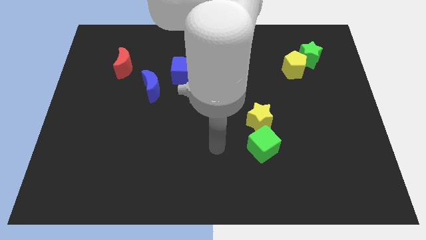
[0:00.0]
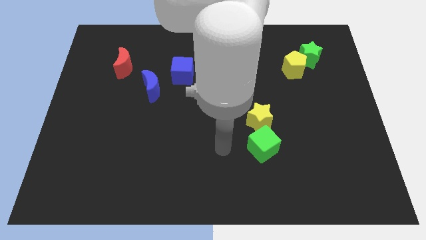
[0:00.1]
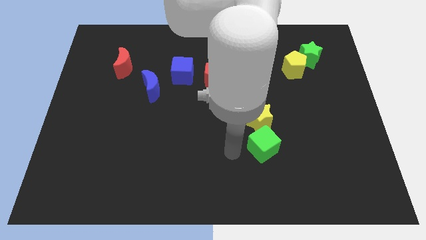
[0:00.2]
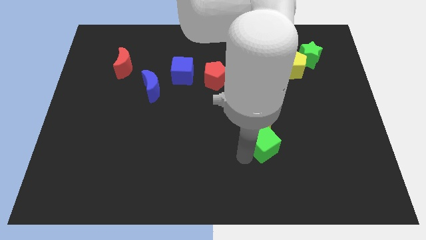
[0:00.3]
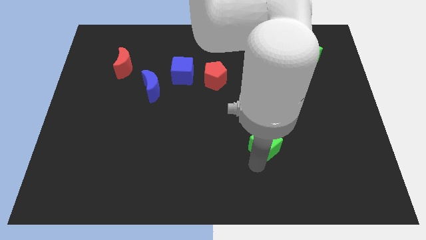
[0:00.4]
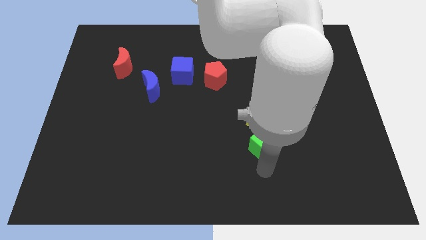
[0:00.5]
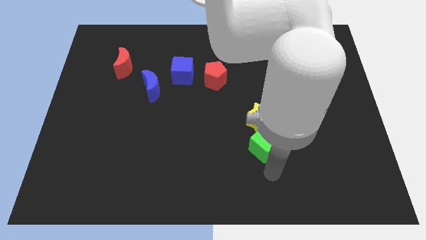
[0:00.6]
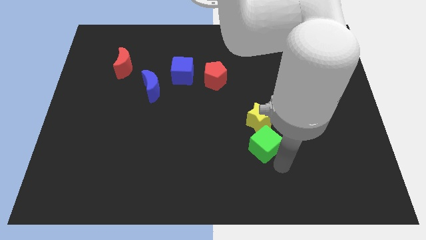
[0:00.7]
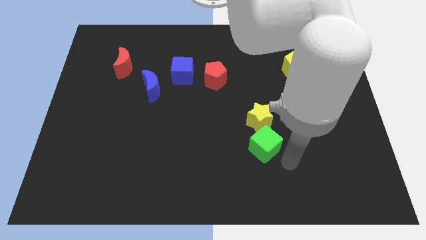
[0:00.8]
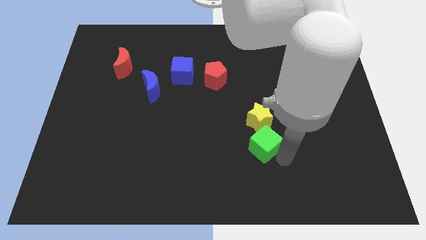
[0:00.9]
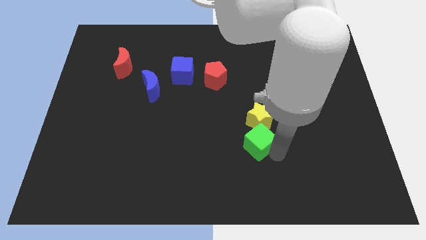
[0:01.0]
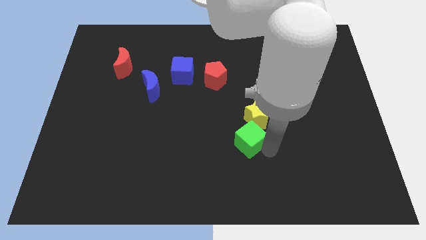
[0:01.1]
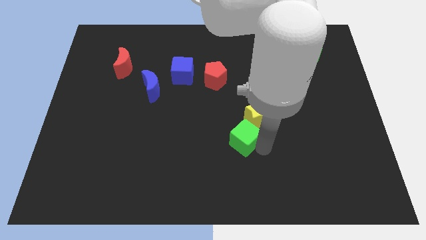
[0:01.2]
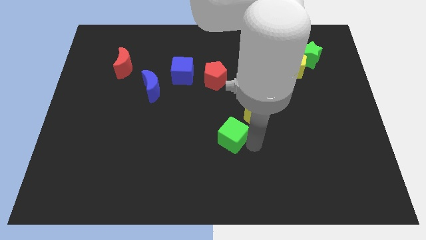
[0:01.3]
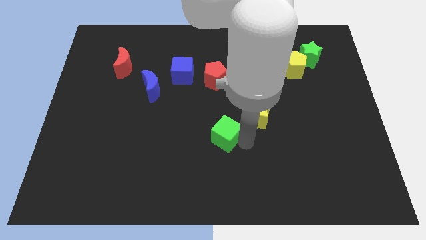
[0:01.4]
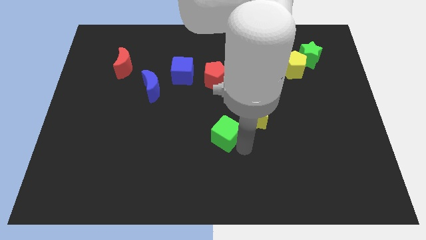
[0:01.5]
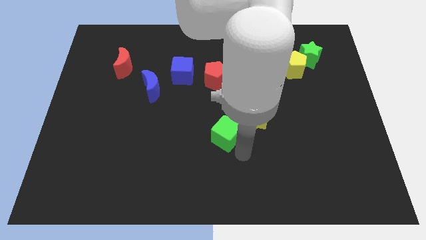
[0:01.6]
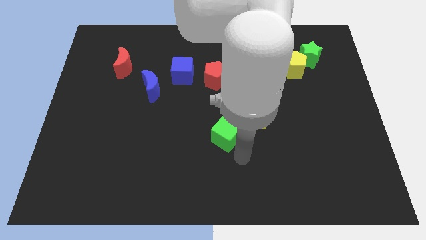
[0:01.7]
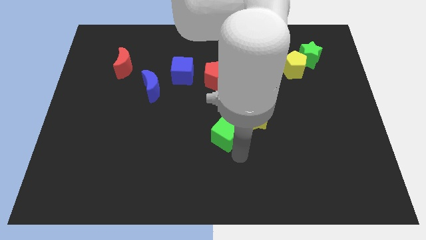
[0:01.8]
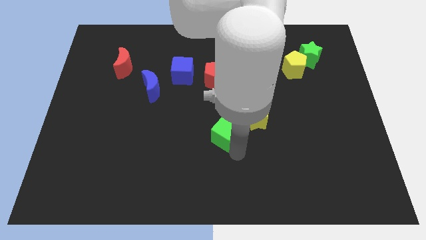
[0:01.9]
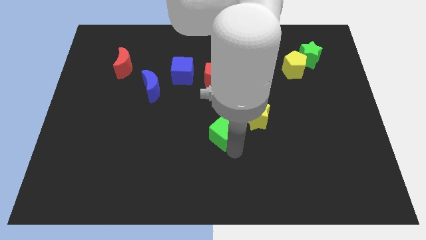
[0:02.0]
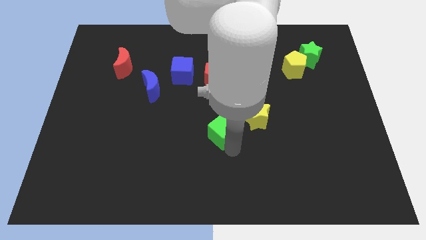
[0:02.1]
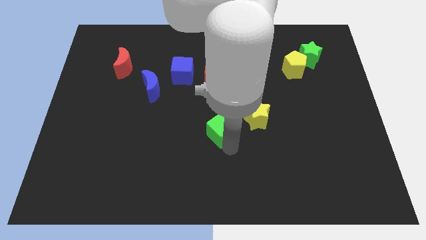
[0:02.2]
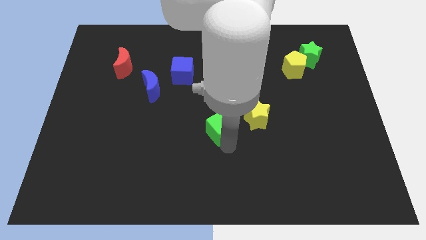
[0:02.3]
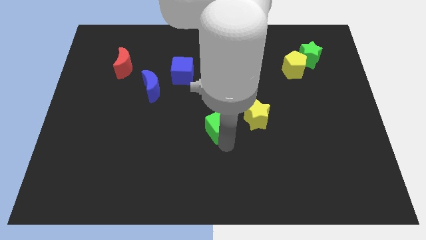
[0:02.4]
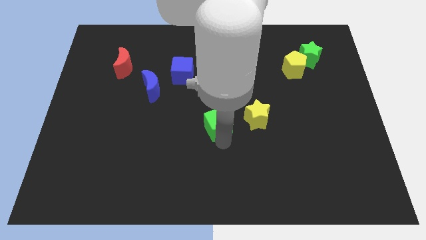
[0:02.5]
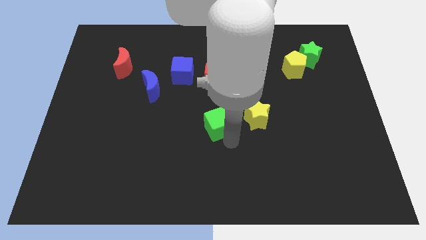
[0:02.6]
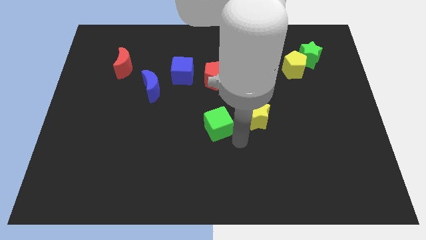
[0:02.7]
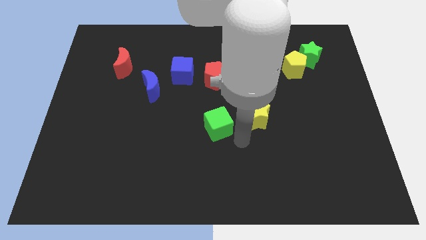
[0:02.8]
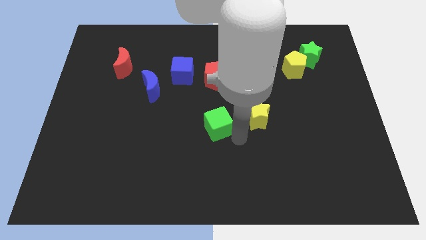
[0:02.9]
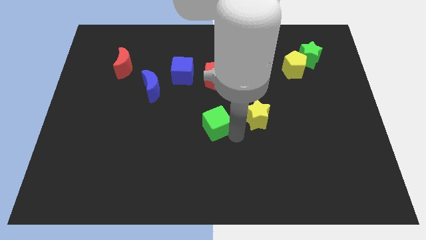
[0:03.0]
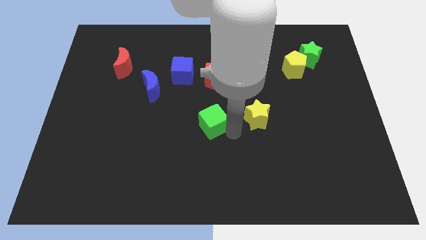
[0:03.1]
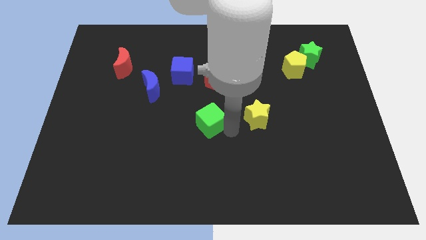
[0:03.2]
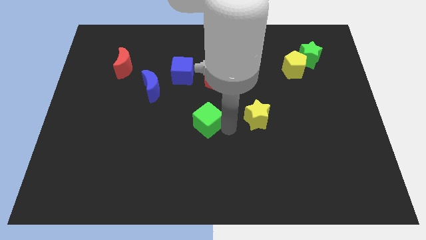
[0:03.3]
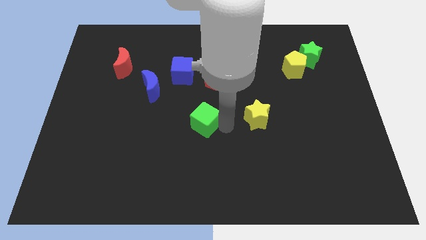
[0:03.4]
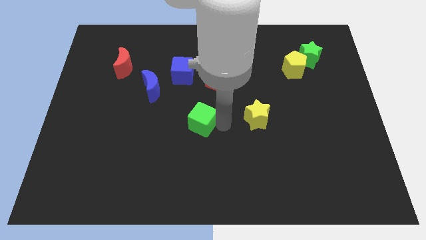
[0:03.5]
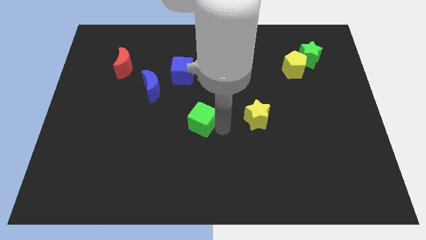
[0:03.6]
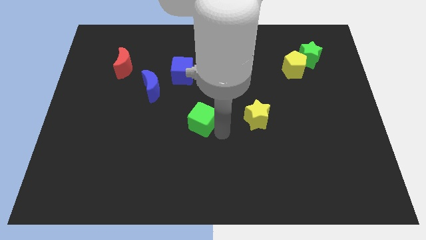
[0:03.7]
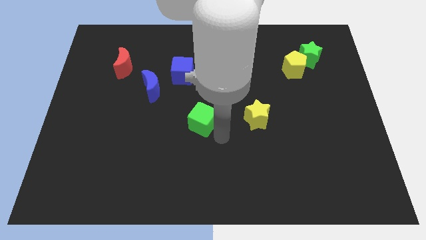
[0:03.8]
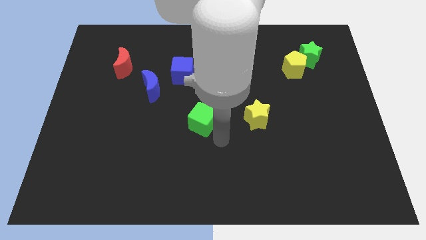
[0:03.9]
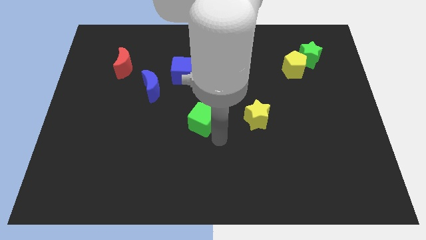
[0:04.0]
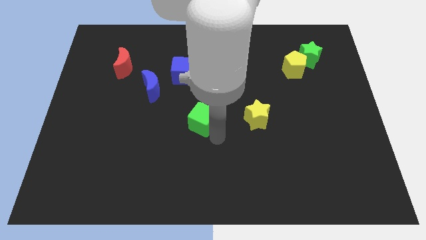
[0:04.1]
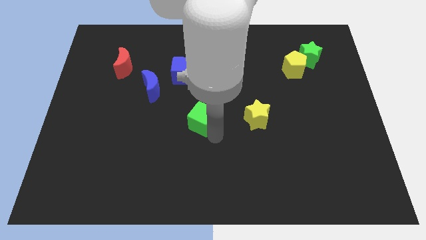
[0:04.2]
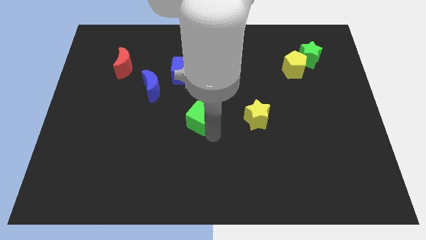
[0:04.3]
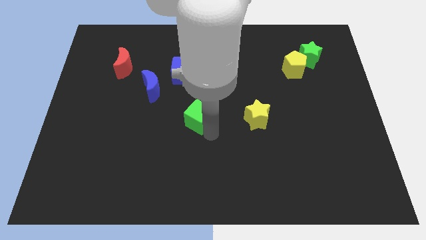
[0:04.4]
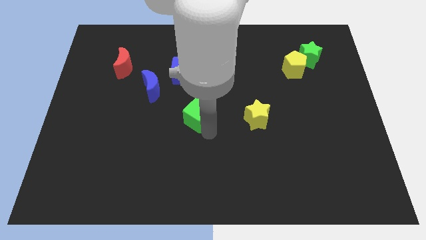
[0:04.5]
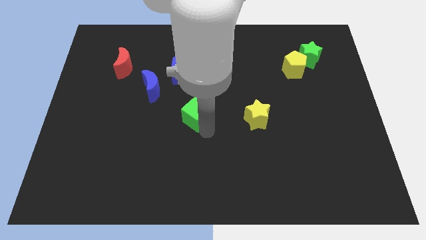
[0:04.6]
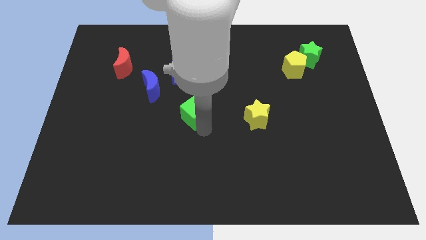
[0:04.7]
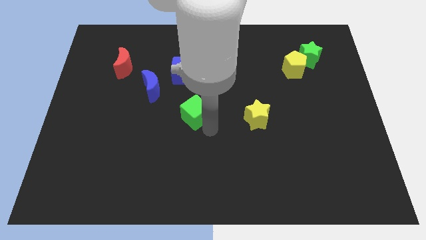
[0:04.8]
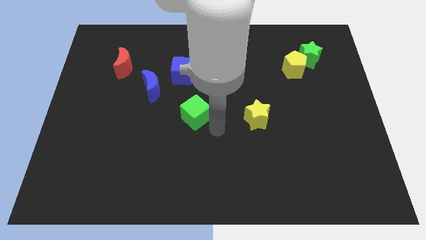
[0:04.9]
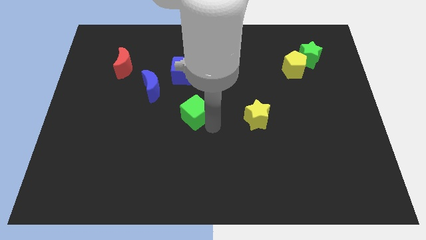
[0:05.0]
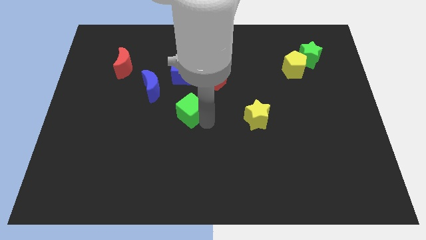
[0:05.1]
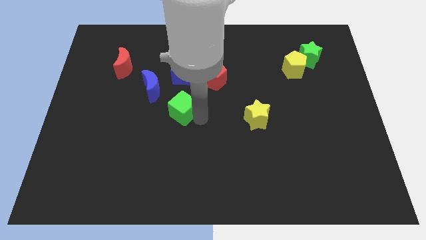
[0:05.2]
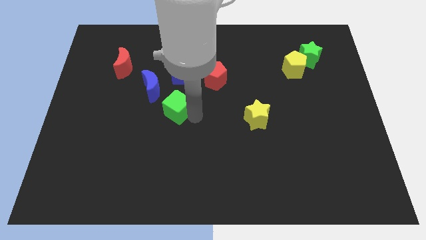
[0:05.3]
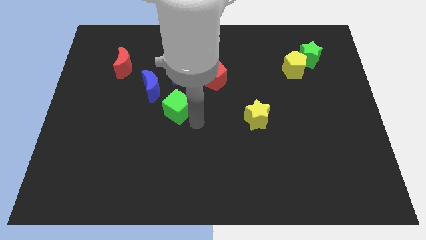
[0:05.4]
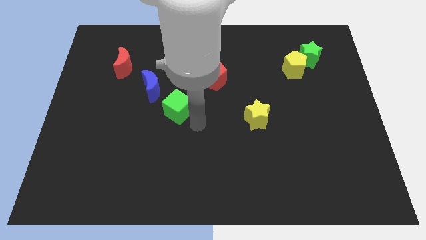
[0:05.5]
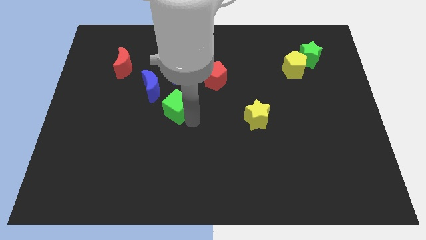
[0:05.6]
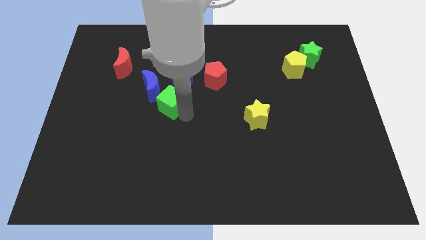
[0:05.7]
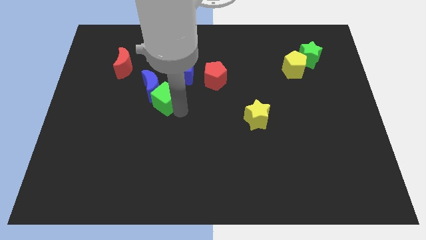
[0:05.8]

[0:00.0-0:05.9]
put the green cube next to the blue moon

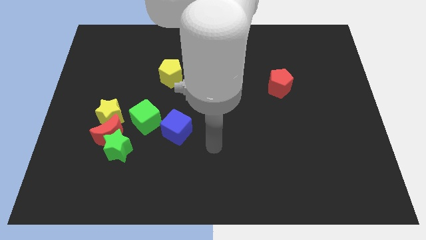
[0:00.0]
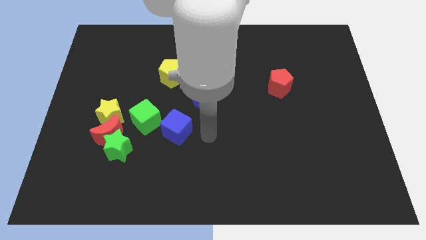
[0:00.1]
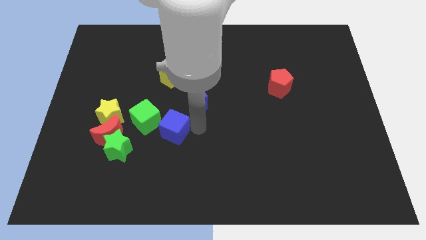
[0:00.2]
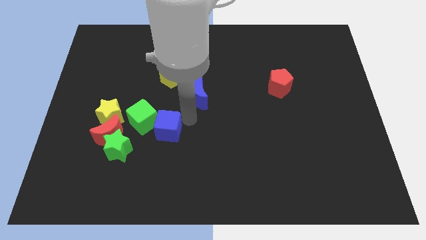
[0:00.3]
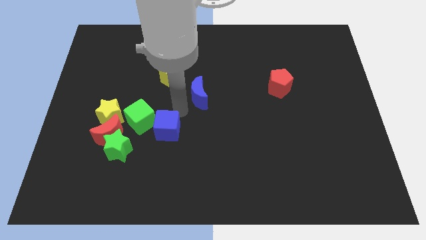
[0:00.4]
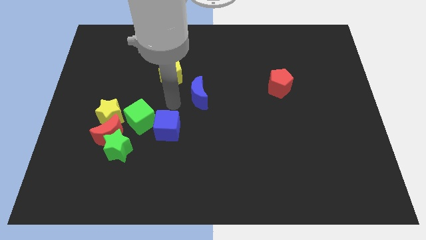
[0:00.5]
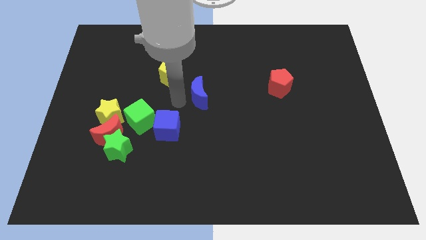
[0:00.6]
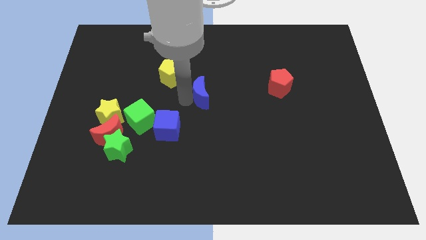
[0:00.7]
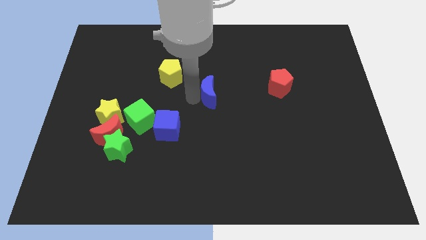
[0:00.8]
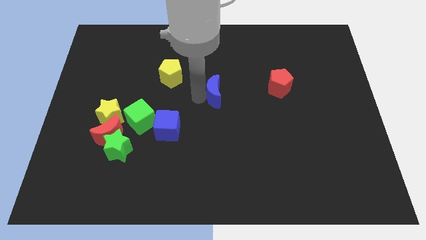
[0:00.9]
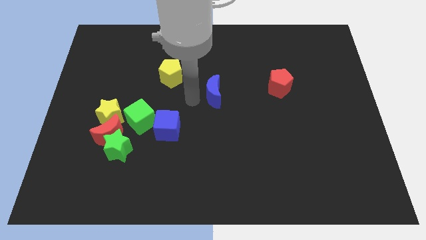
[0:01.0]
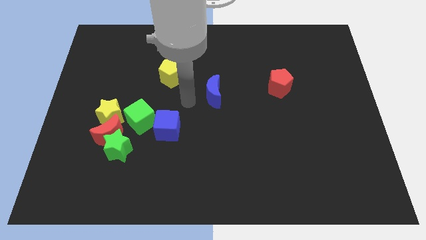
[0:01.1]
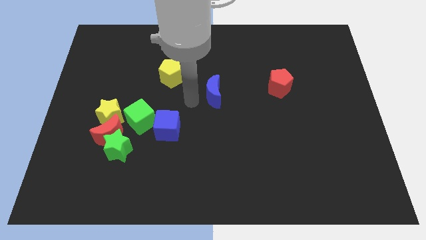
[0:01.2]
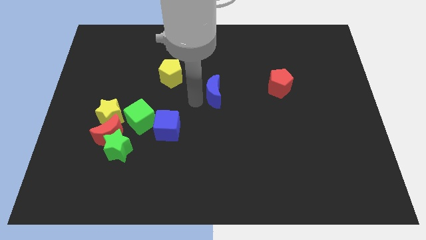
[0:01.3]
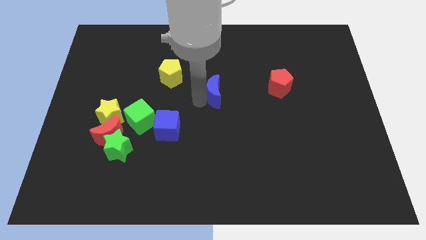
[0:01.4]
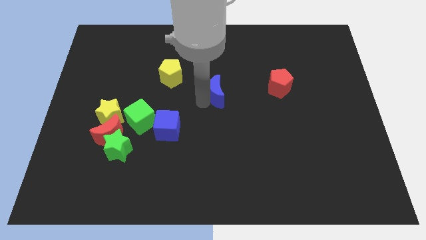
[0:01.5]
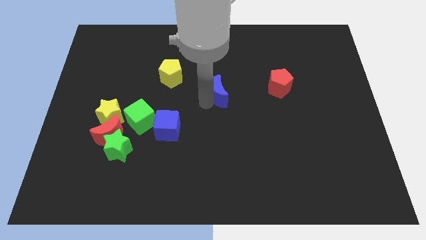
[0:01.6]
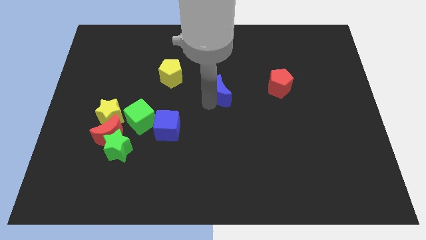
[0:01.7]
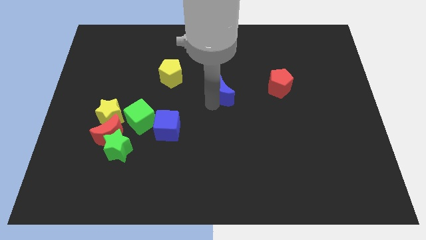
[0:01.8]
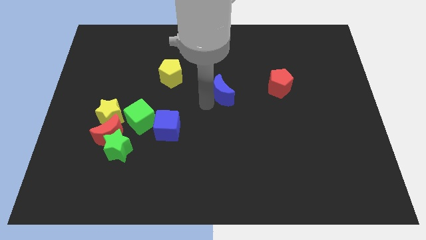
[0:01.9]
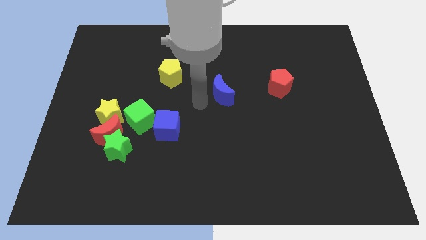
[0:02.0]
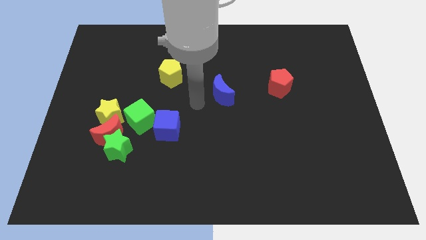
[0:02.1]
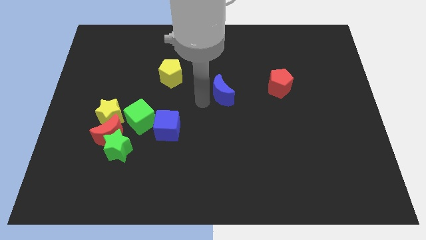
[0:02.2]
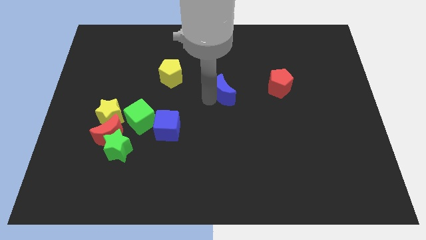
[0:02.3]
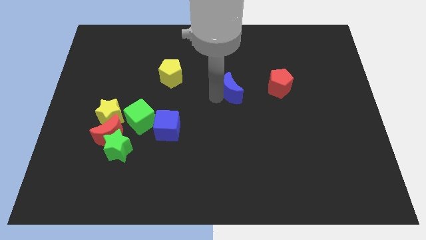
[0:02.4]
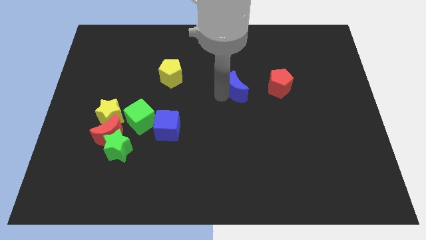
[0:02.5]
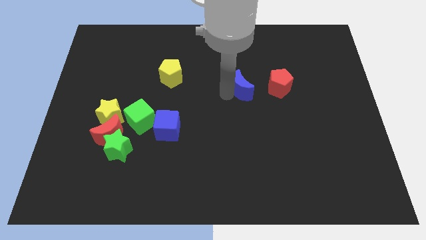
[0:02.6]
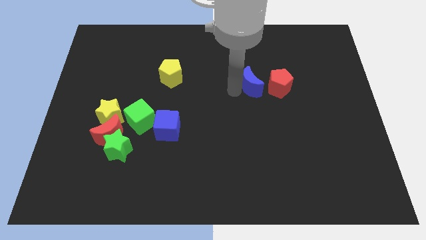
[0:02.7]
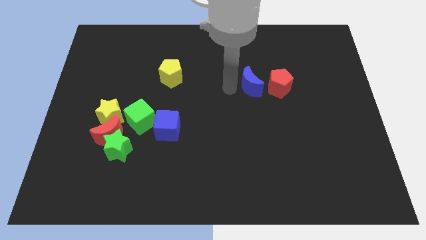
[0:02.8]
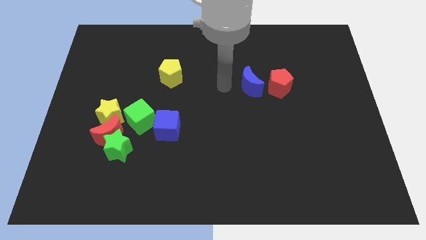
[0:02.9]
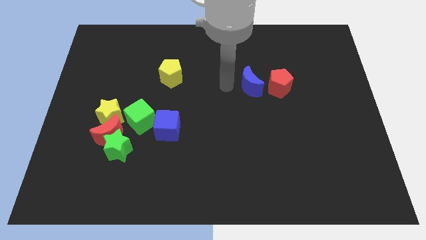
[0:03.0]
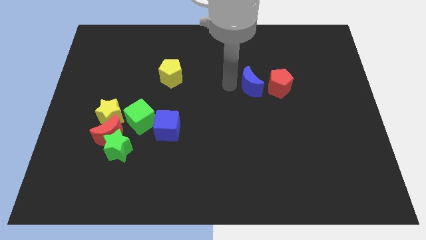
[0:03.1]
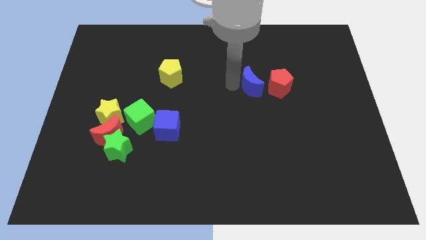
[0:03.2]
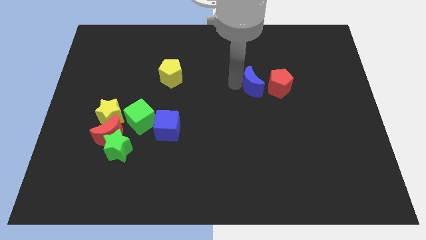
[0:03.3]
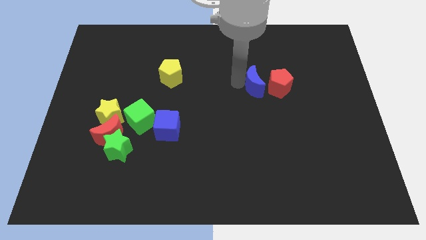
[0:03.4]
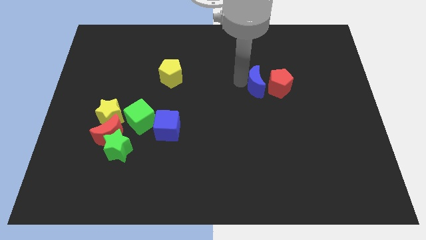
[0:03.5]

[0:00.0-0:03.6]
put the blue moon next to the red pentagon
